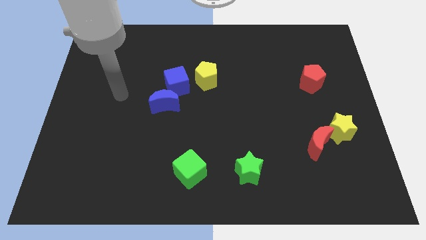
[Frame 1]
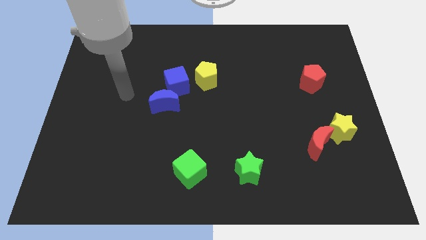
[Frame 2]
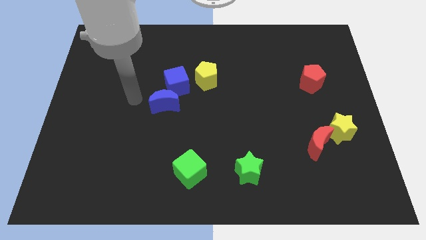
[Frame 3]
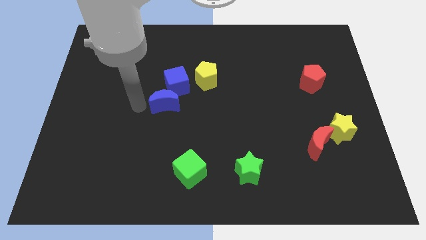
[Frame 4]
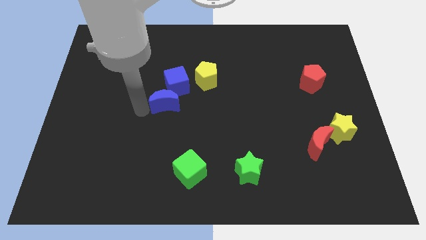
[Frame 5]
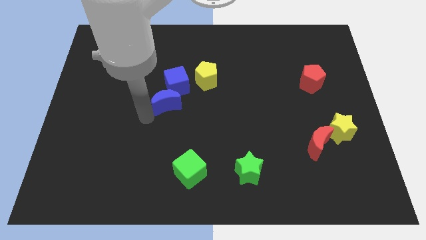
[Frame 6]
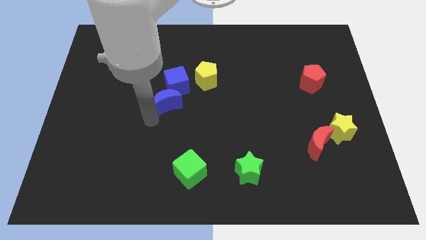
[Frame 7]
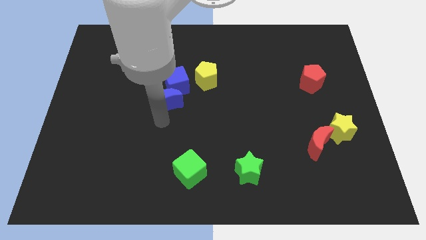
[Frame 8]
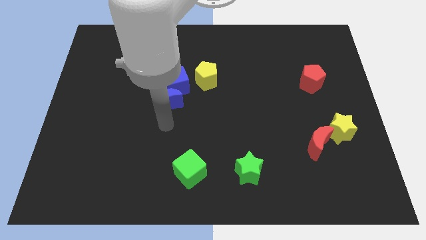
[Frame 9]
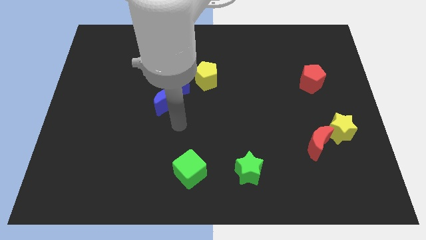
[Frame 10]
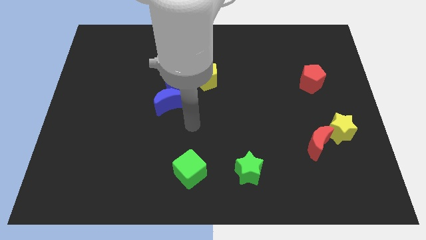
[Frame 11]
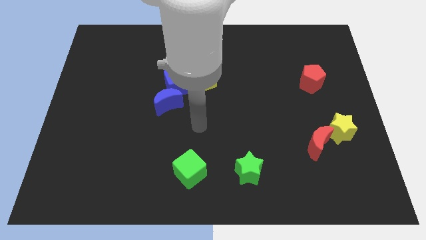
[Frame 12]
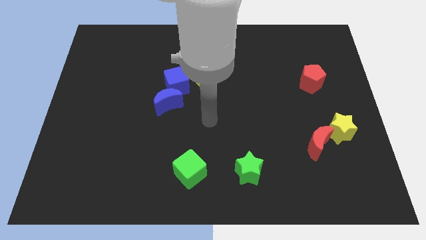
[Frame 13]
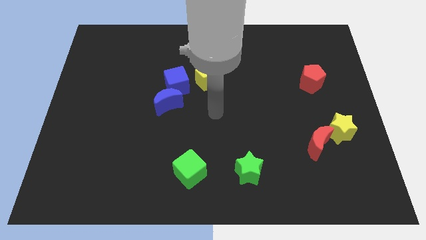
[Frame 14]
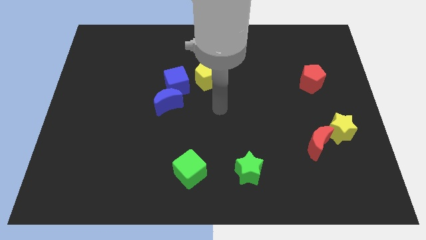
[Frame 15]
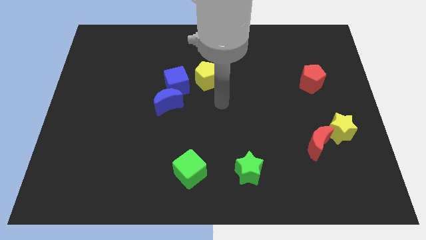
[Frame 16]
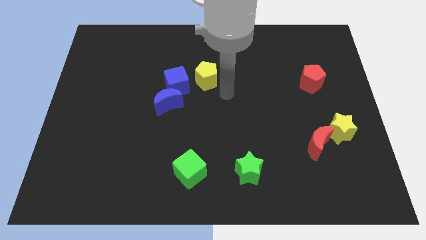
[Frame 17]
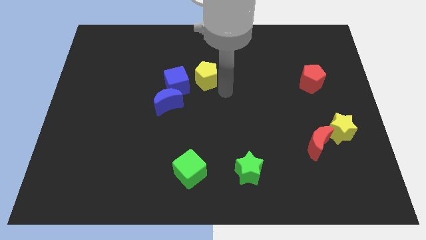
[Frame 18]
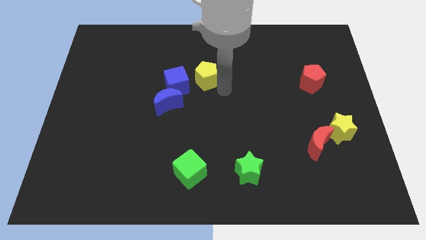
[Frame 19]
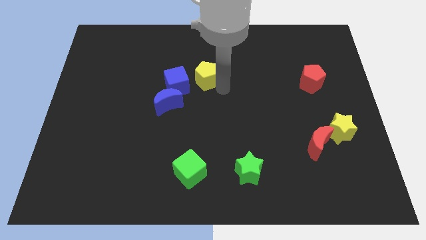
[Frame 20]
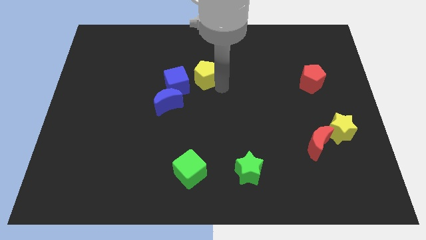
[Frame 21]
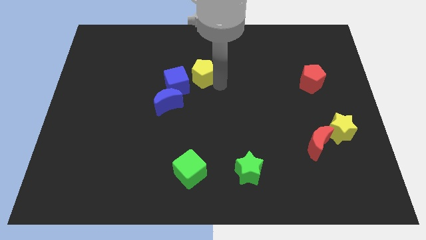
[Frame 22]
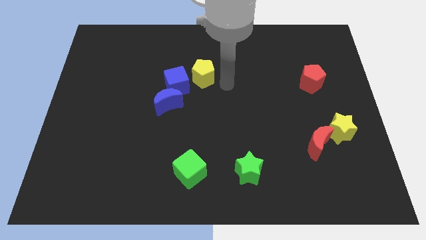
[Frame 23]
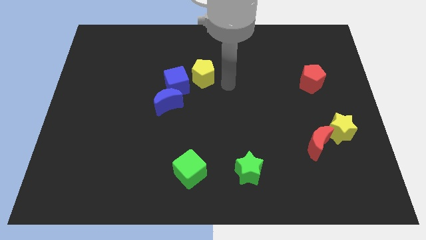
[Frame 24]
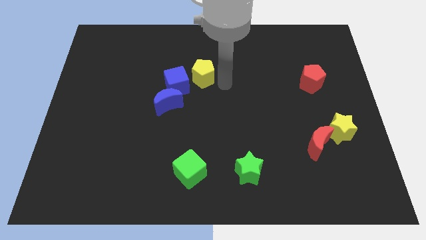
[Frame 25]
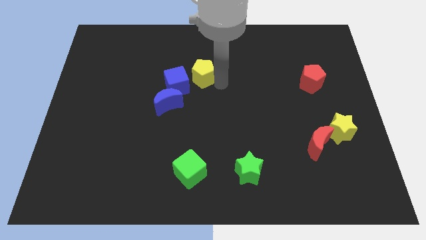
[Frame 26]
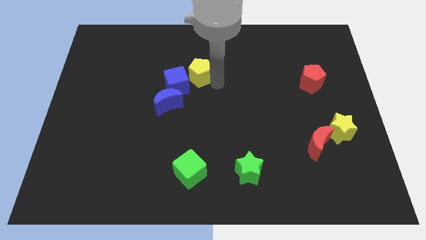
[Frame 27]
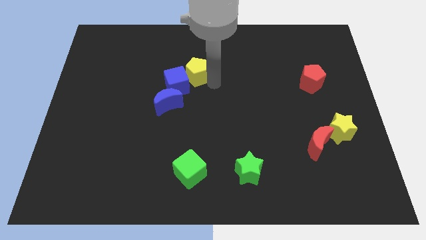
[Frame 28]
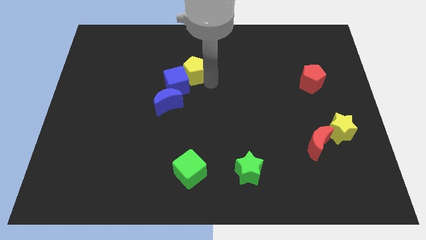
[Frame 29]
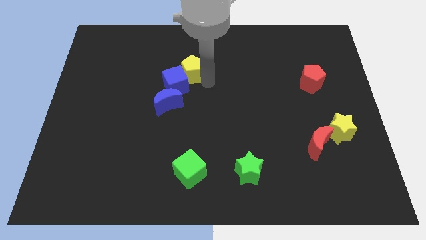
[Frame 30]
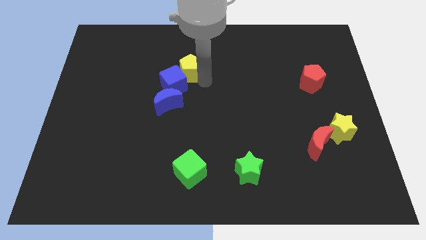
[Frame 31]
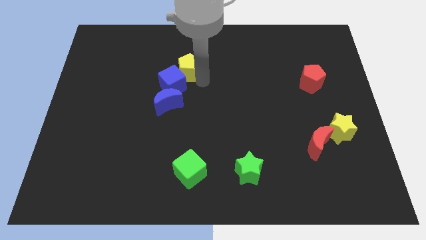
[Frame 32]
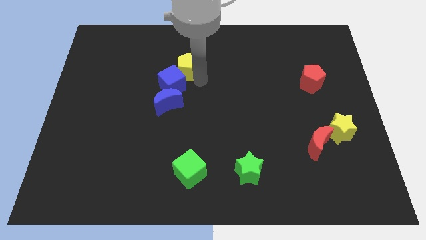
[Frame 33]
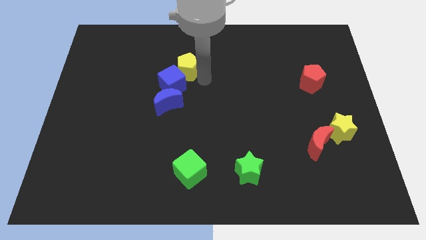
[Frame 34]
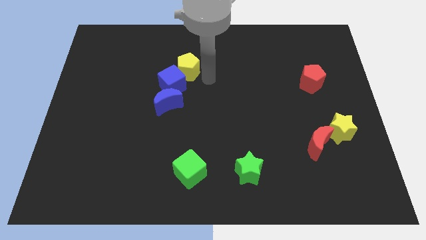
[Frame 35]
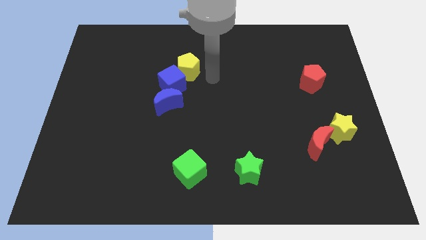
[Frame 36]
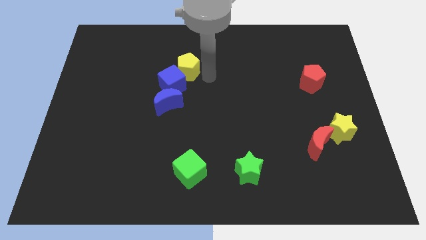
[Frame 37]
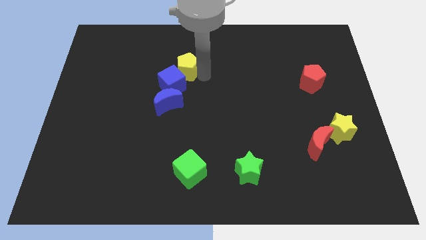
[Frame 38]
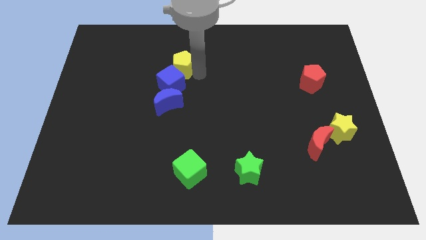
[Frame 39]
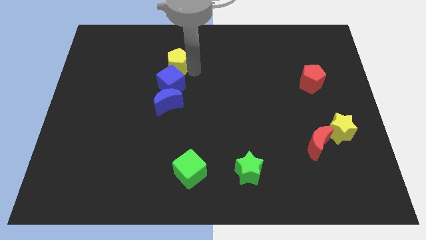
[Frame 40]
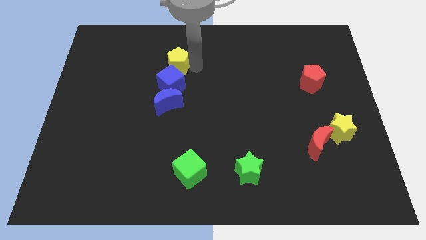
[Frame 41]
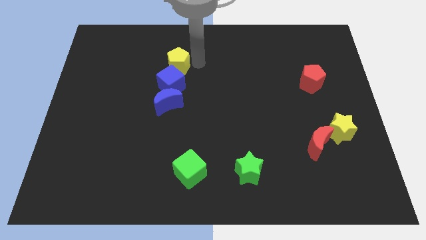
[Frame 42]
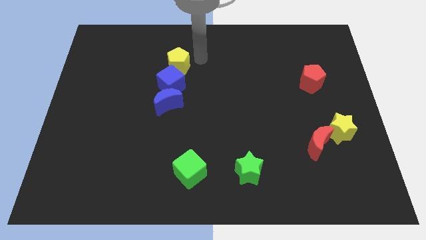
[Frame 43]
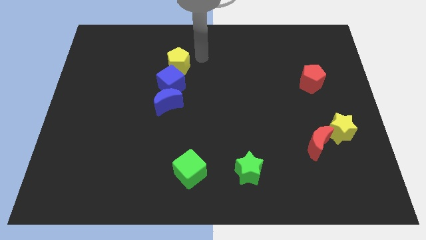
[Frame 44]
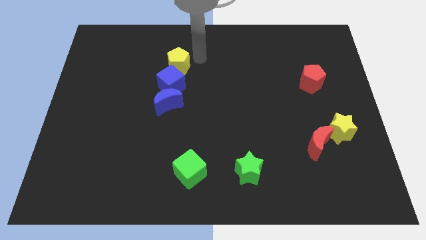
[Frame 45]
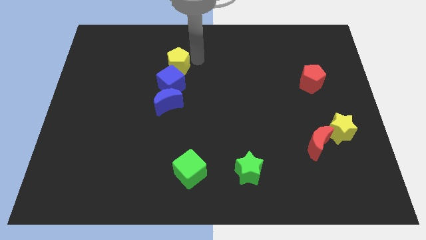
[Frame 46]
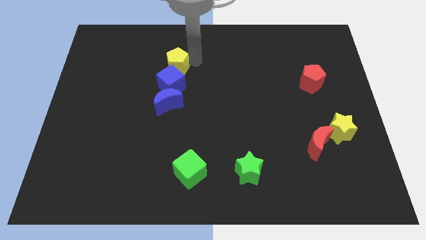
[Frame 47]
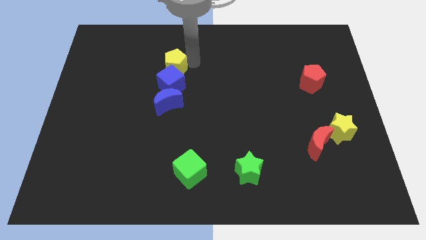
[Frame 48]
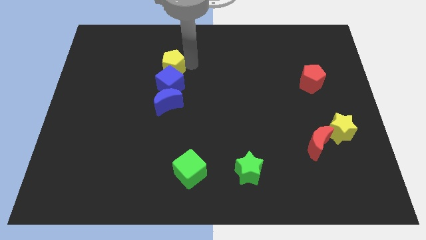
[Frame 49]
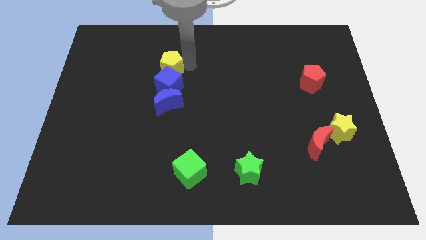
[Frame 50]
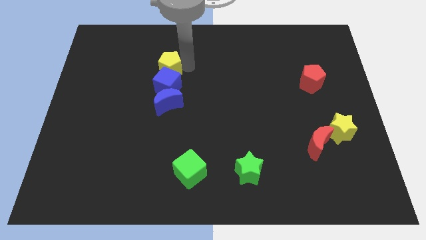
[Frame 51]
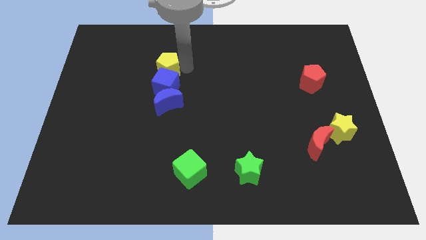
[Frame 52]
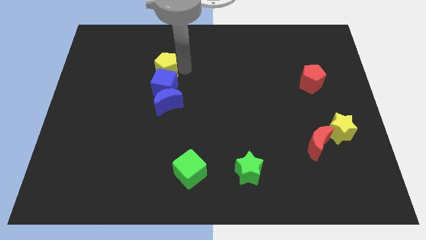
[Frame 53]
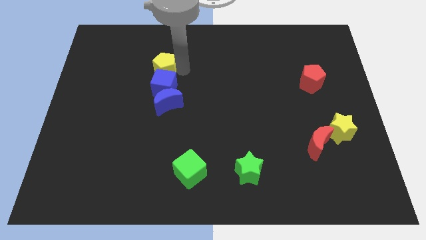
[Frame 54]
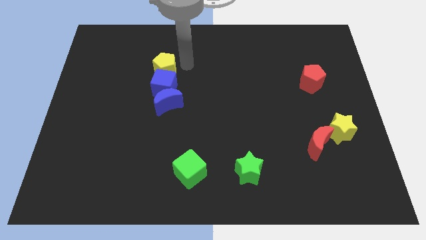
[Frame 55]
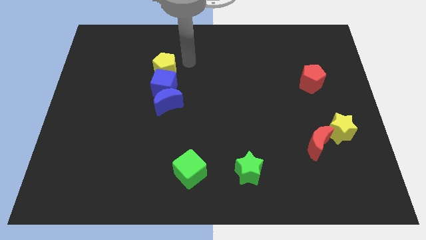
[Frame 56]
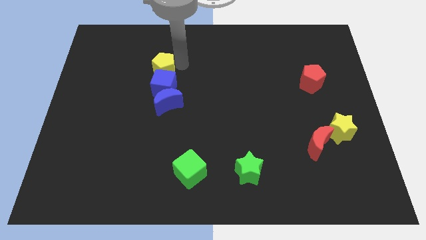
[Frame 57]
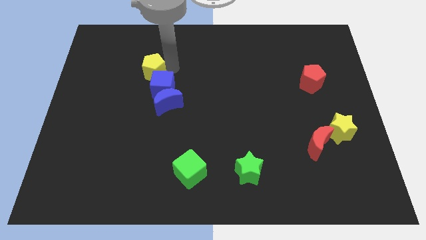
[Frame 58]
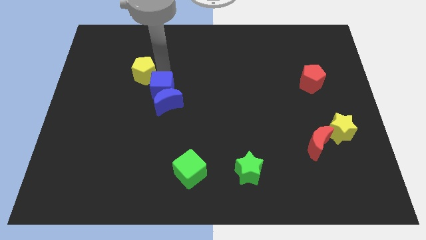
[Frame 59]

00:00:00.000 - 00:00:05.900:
slide the yellow pentagon to the left of the blue cube
